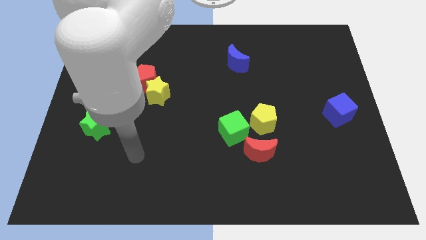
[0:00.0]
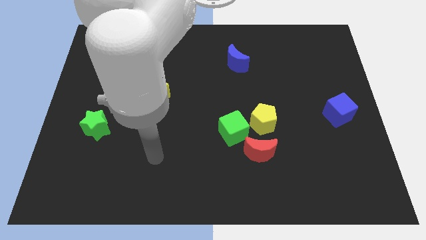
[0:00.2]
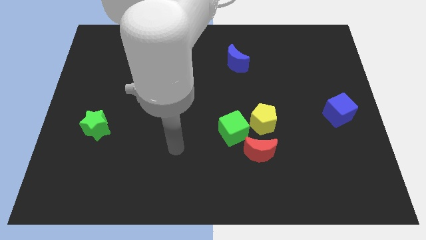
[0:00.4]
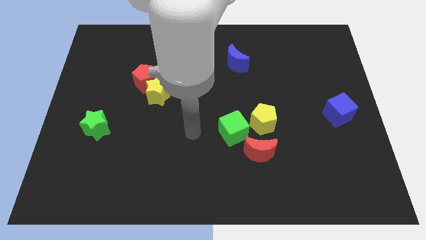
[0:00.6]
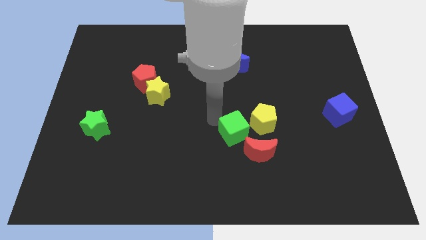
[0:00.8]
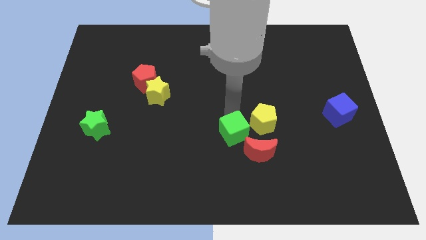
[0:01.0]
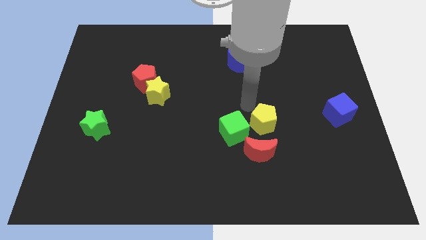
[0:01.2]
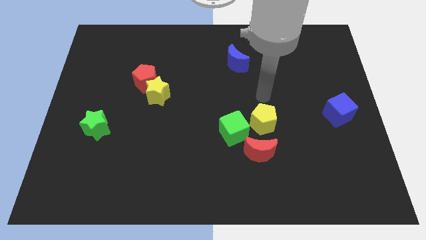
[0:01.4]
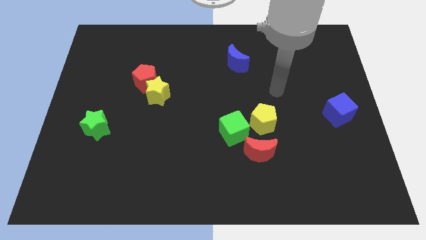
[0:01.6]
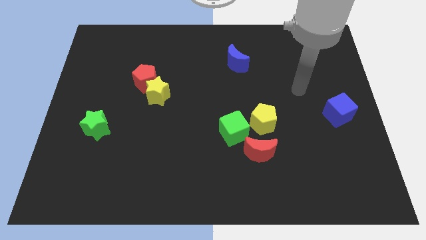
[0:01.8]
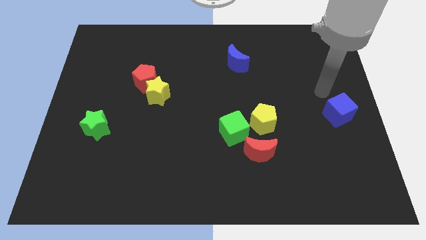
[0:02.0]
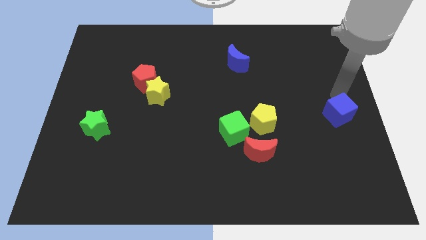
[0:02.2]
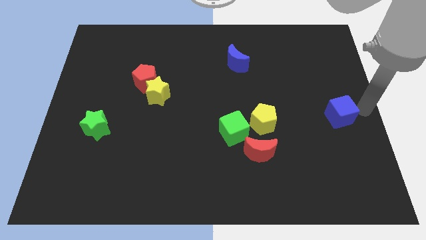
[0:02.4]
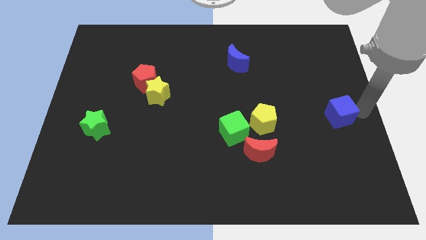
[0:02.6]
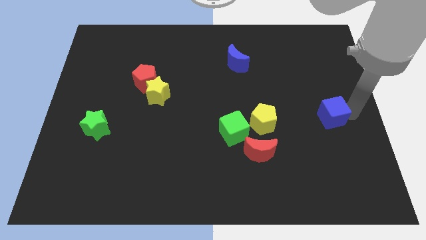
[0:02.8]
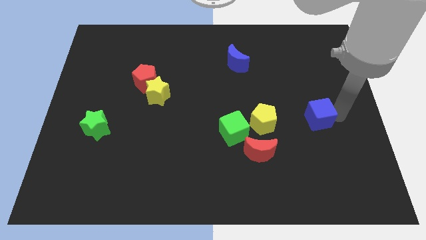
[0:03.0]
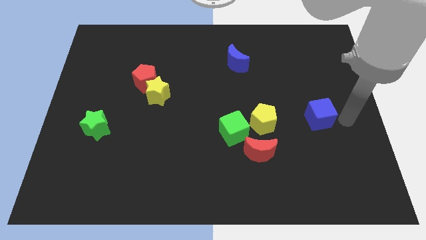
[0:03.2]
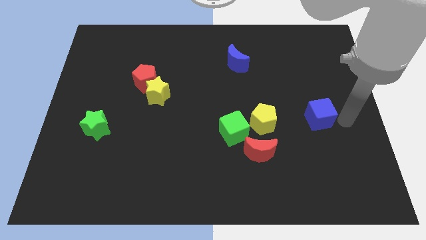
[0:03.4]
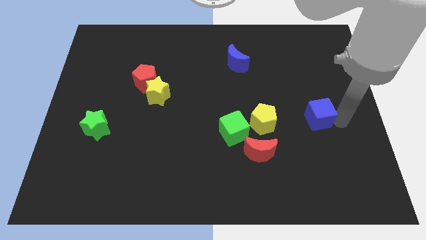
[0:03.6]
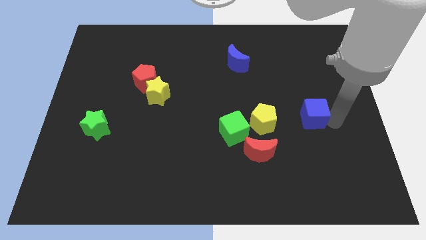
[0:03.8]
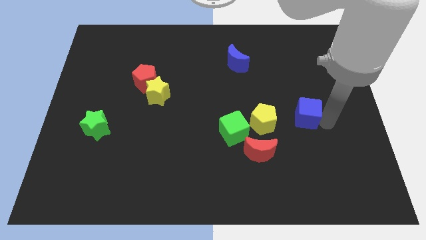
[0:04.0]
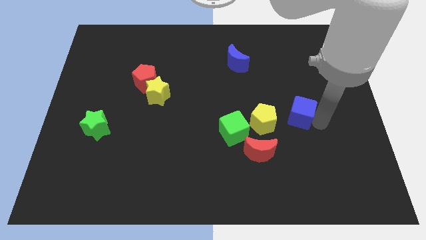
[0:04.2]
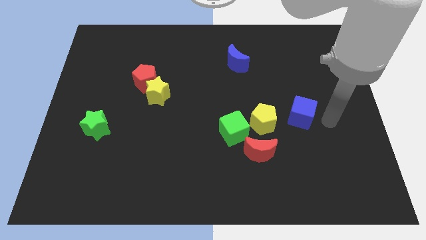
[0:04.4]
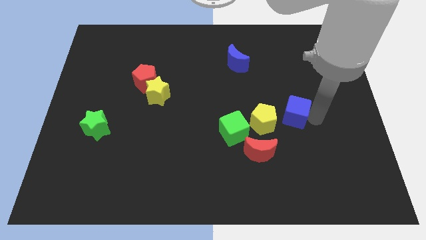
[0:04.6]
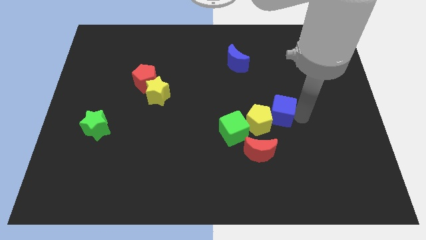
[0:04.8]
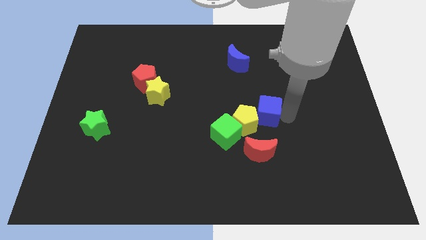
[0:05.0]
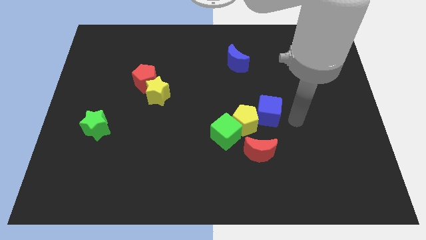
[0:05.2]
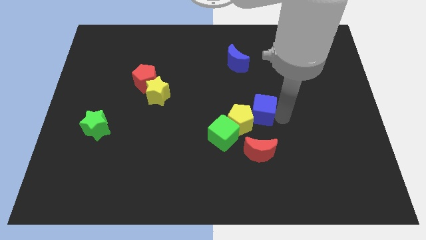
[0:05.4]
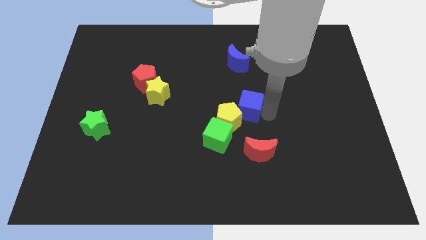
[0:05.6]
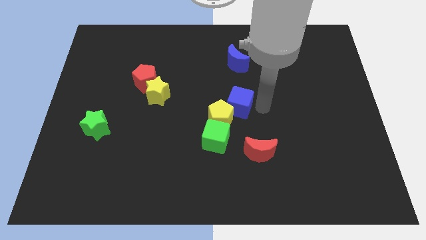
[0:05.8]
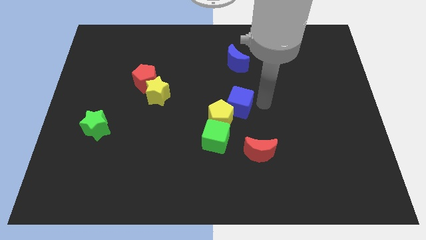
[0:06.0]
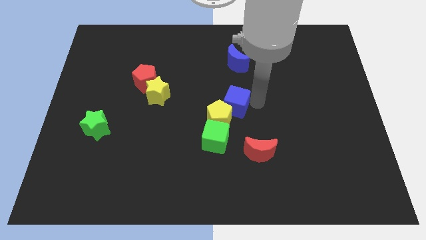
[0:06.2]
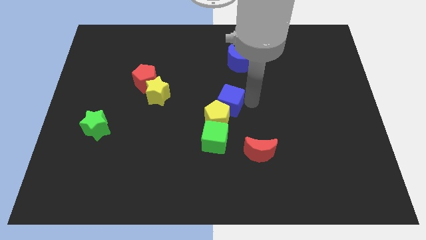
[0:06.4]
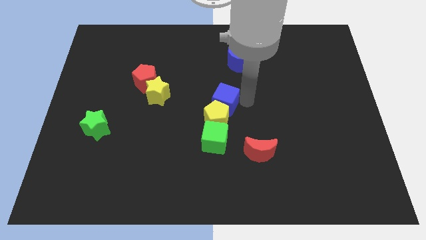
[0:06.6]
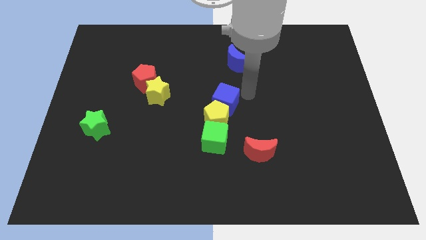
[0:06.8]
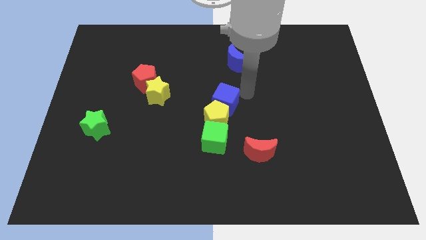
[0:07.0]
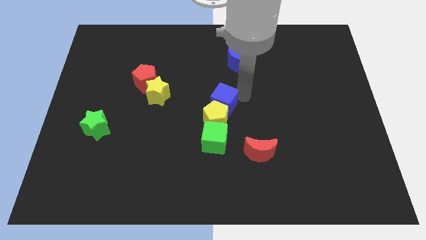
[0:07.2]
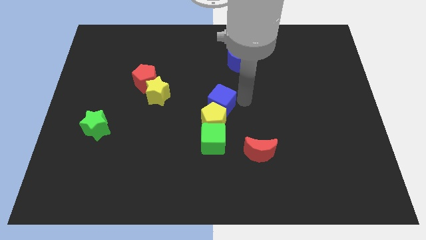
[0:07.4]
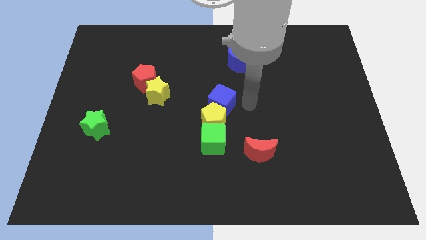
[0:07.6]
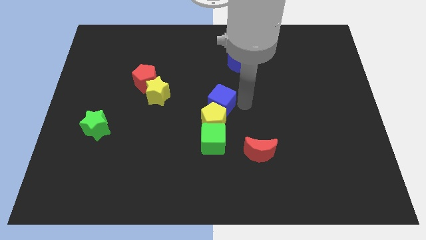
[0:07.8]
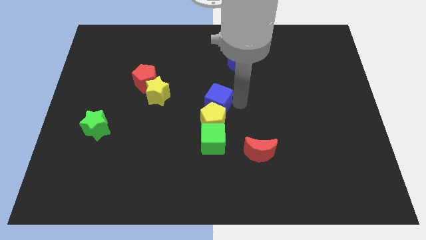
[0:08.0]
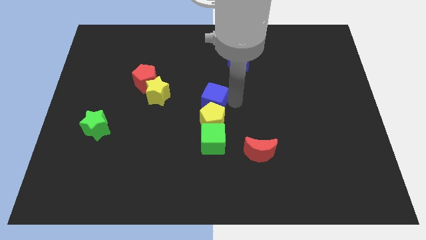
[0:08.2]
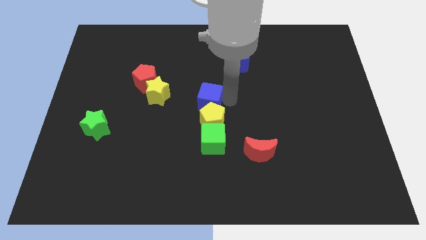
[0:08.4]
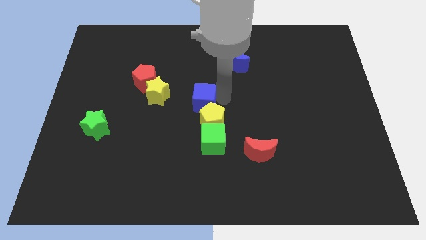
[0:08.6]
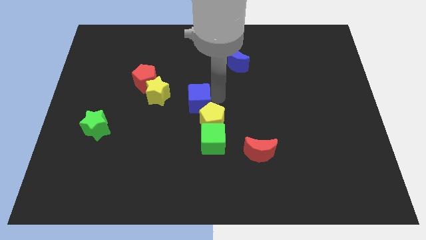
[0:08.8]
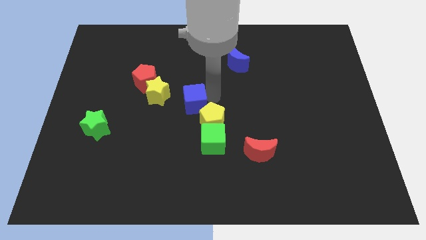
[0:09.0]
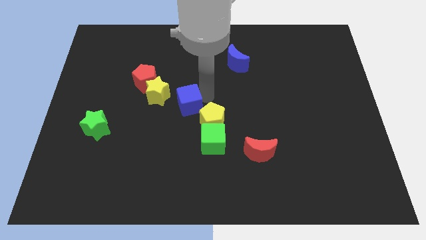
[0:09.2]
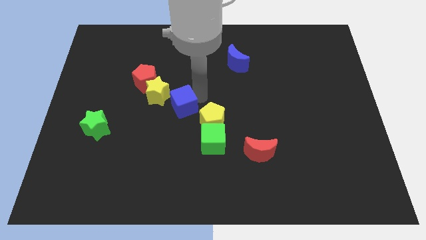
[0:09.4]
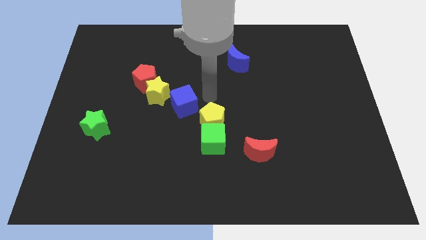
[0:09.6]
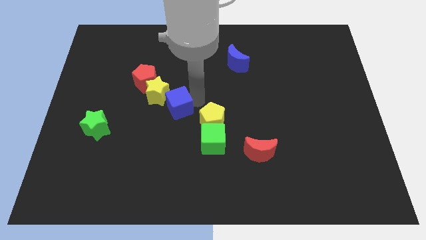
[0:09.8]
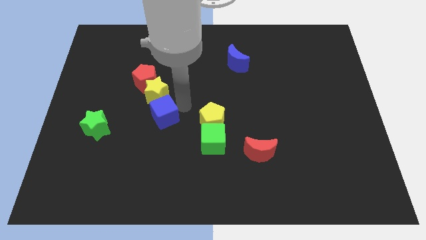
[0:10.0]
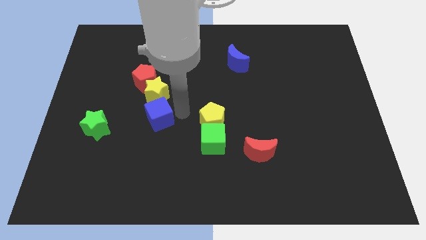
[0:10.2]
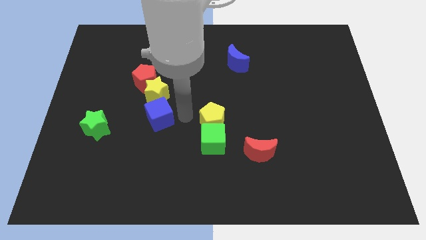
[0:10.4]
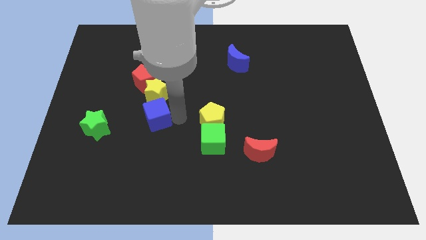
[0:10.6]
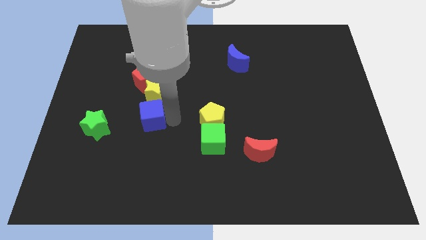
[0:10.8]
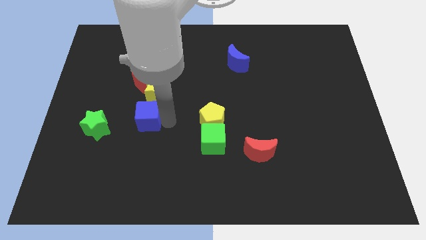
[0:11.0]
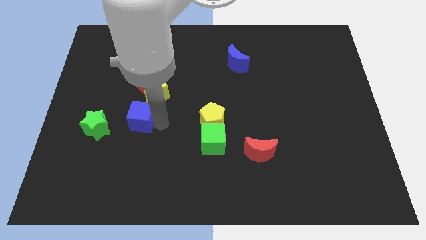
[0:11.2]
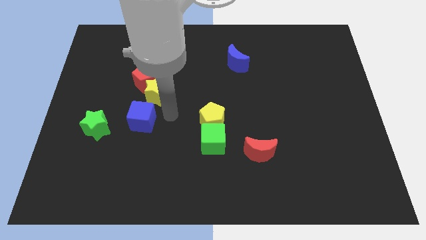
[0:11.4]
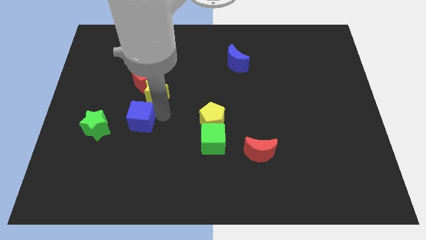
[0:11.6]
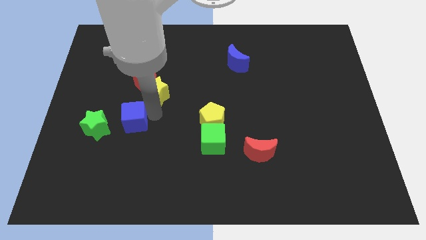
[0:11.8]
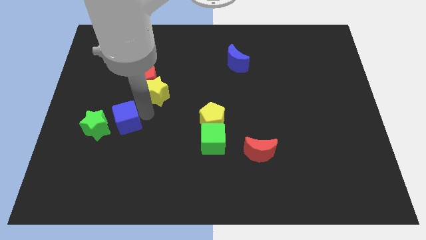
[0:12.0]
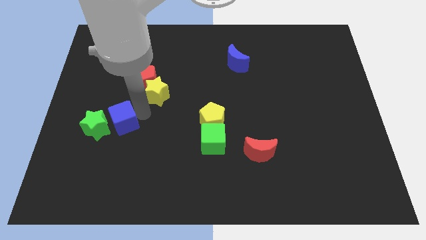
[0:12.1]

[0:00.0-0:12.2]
move the blue cube towards the green star

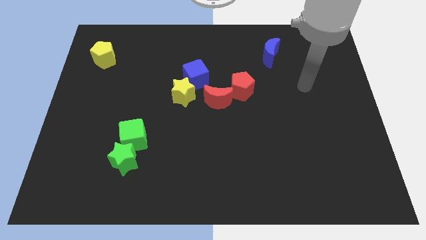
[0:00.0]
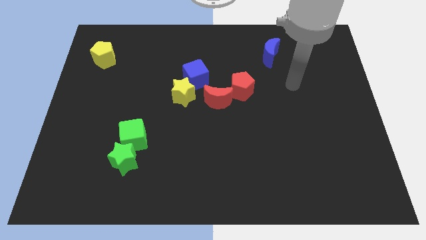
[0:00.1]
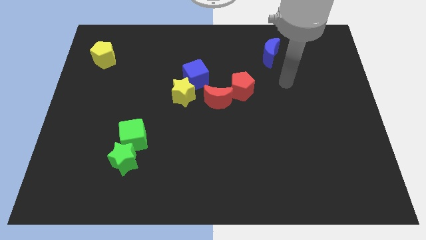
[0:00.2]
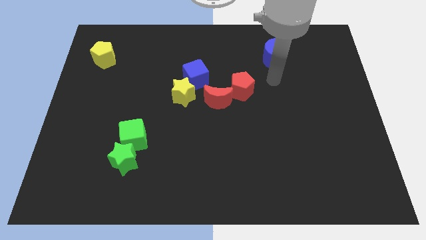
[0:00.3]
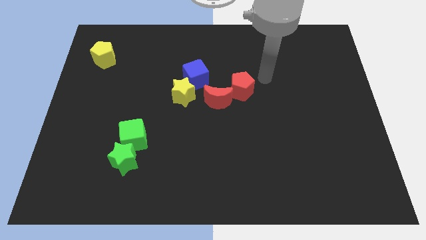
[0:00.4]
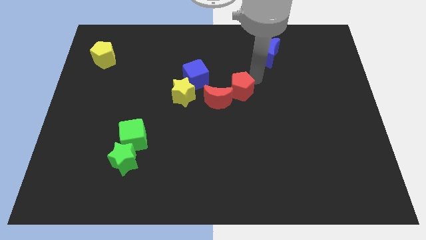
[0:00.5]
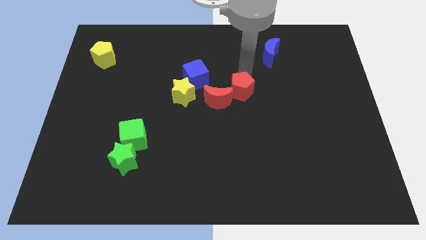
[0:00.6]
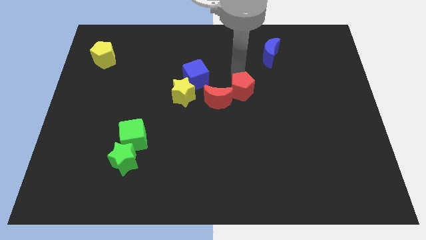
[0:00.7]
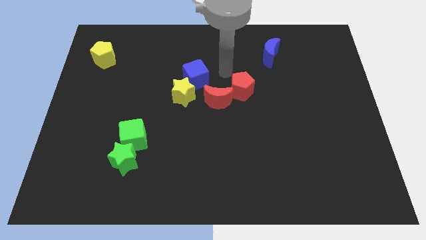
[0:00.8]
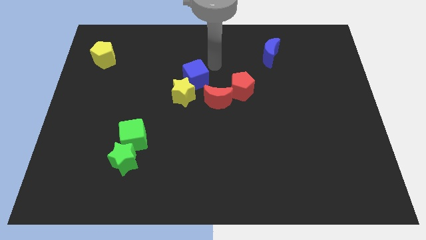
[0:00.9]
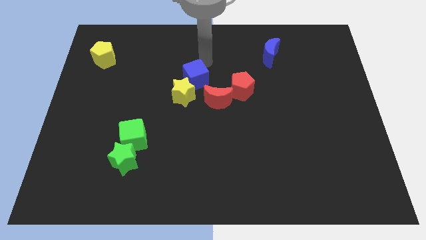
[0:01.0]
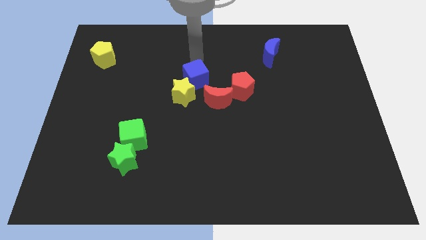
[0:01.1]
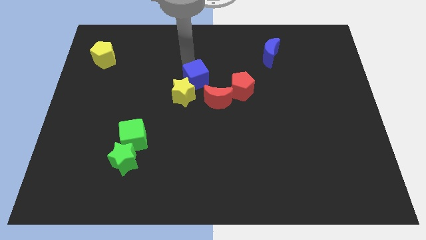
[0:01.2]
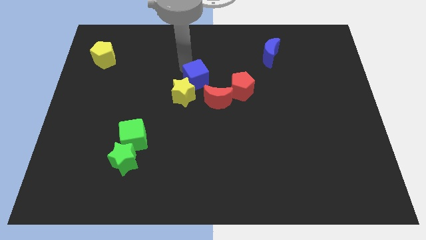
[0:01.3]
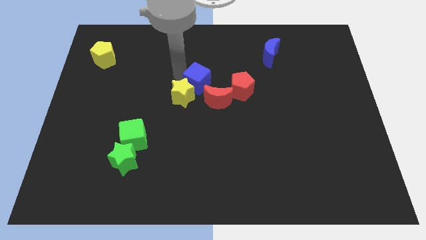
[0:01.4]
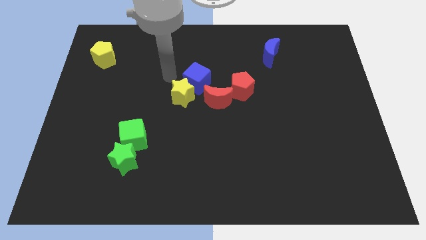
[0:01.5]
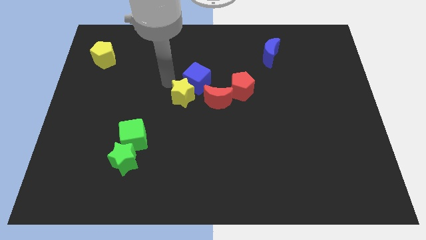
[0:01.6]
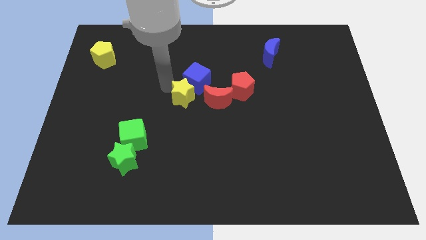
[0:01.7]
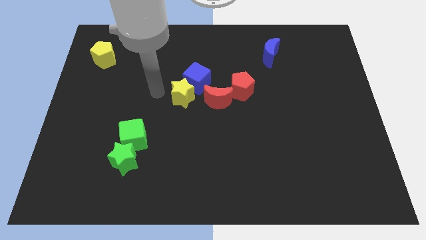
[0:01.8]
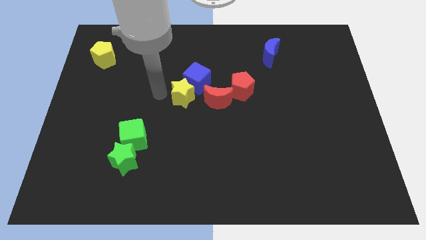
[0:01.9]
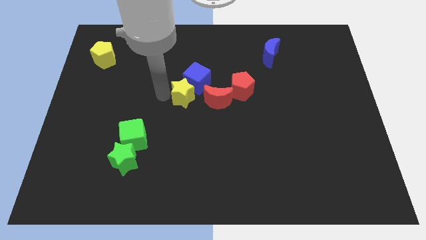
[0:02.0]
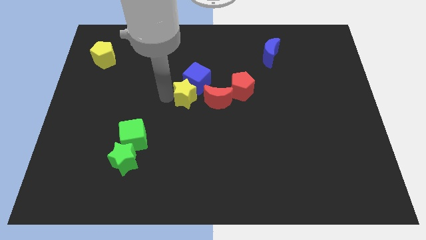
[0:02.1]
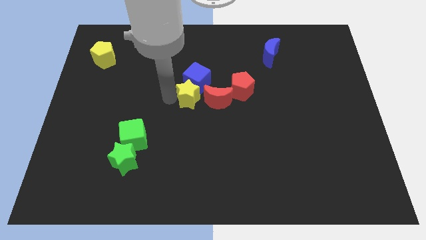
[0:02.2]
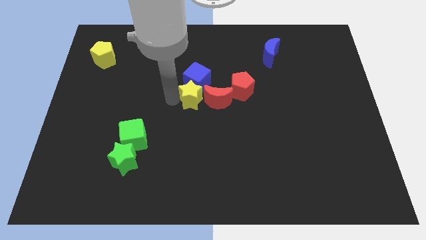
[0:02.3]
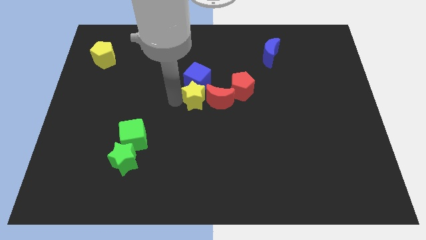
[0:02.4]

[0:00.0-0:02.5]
put the yellow star to the red moon
